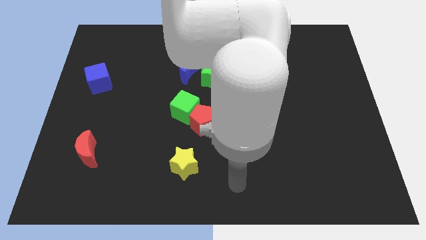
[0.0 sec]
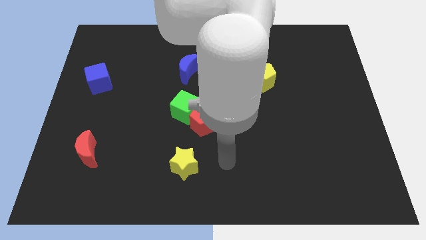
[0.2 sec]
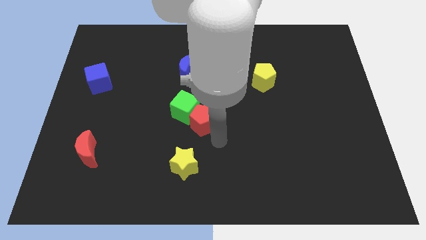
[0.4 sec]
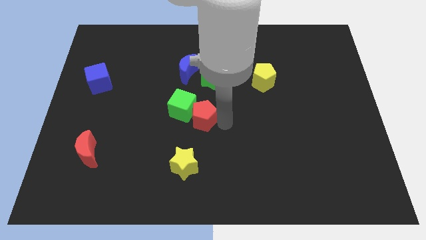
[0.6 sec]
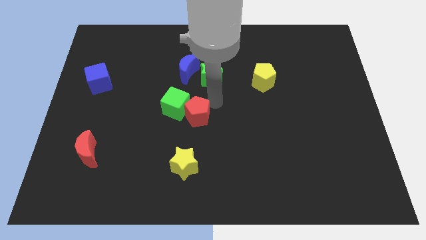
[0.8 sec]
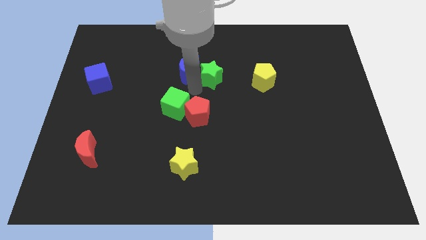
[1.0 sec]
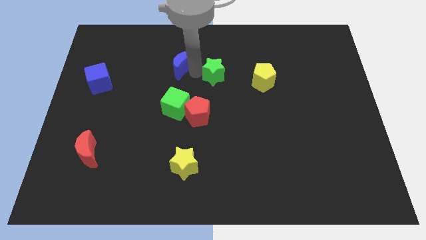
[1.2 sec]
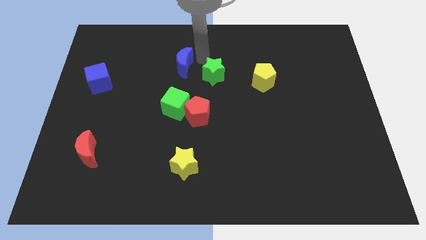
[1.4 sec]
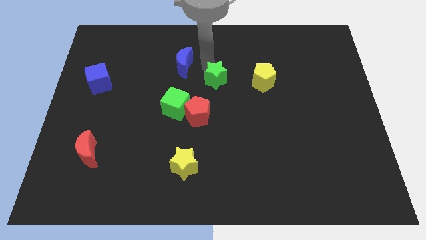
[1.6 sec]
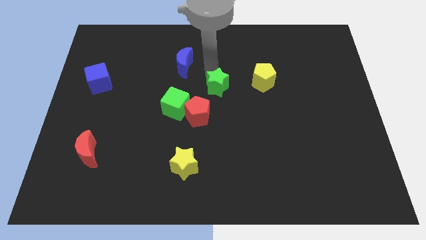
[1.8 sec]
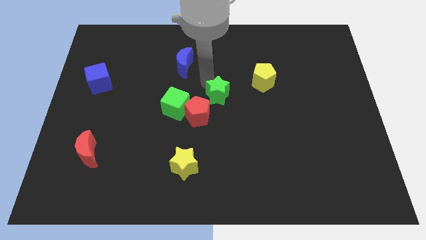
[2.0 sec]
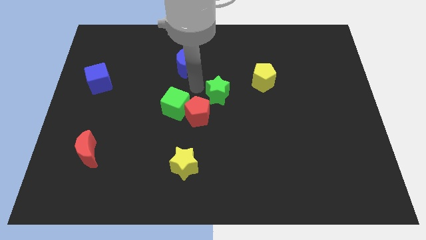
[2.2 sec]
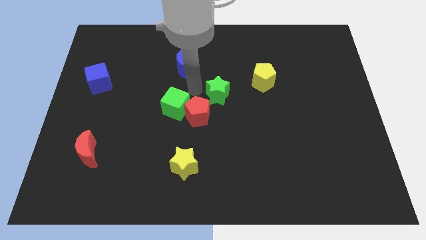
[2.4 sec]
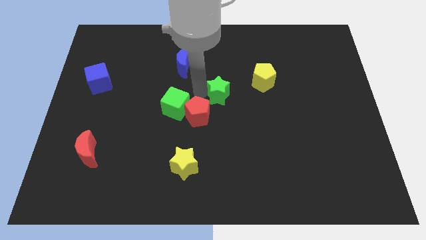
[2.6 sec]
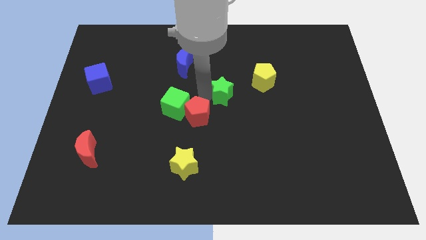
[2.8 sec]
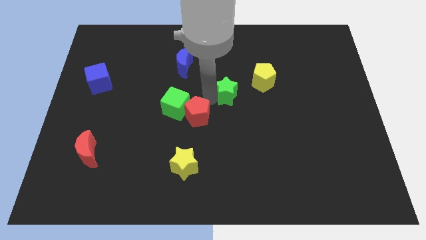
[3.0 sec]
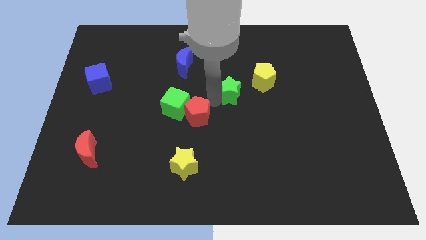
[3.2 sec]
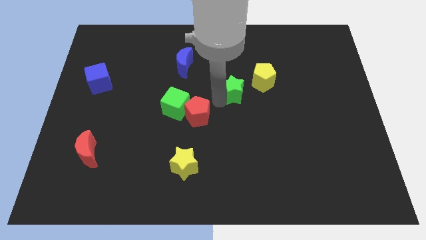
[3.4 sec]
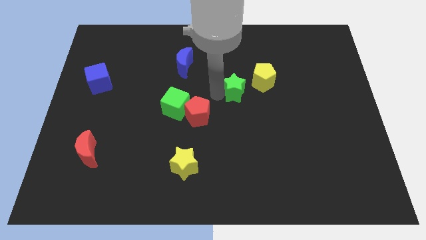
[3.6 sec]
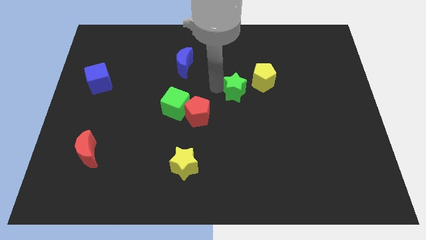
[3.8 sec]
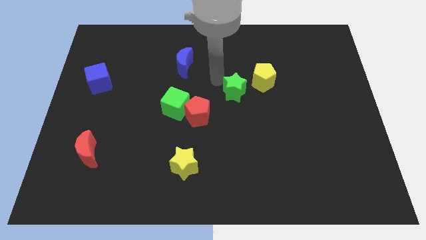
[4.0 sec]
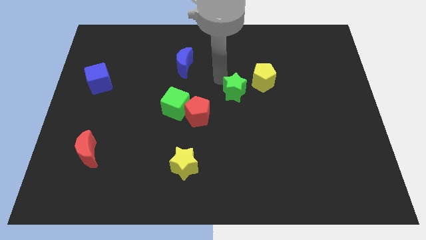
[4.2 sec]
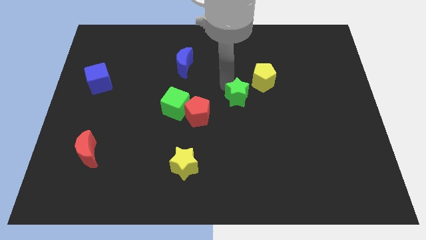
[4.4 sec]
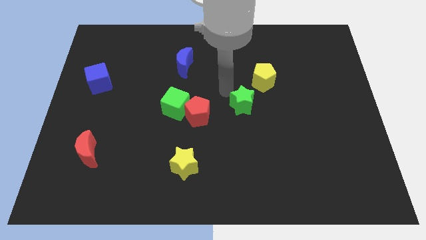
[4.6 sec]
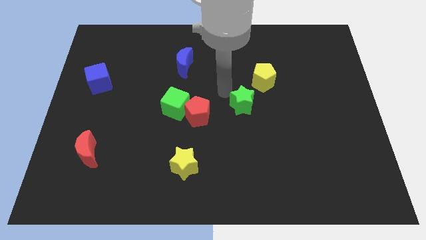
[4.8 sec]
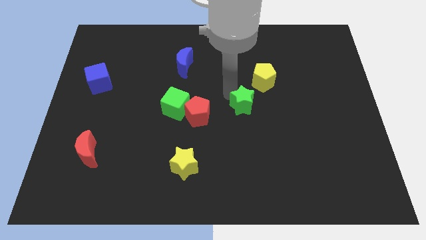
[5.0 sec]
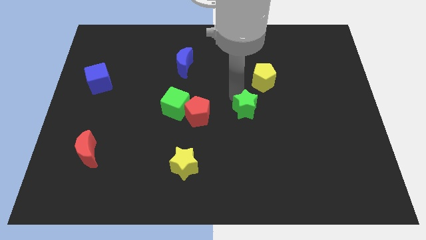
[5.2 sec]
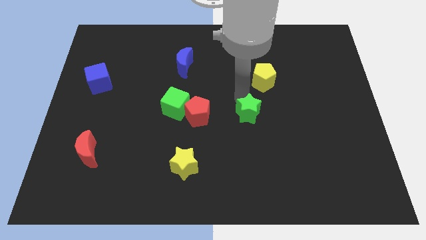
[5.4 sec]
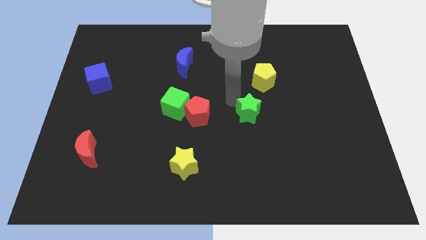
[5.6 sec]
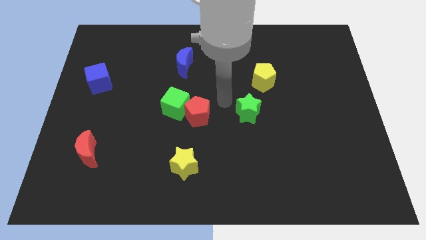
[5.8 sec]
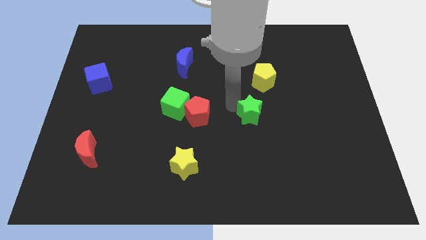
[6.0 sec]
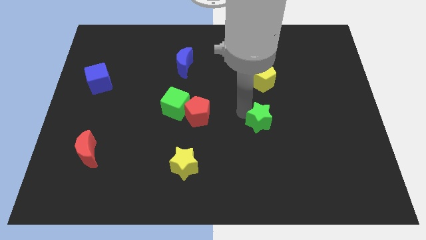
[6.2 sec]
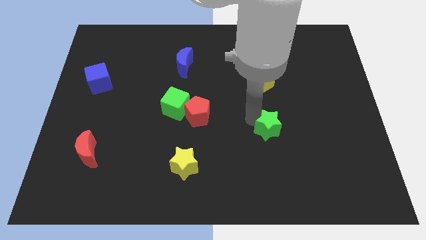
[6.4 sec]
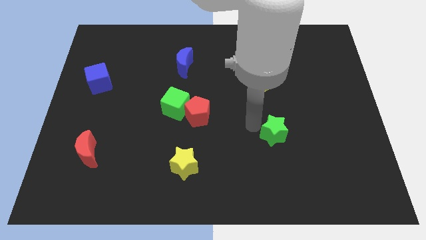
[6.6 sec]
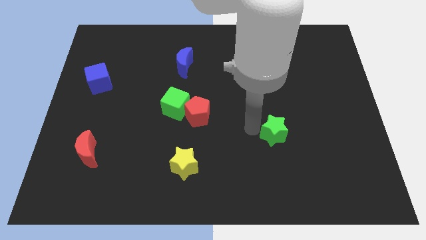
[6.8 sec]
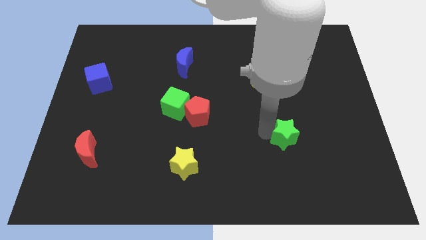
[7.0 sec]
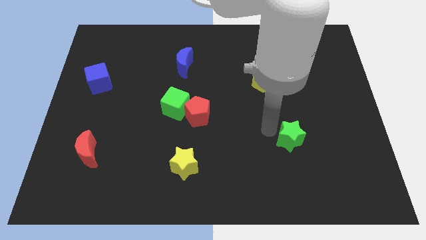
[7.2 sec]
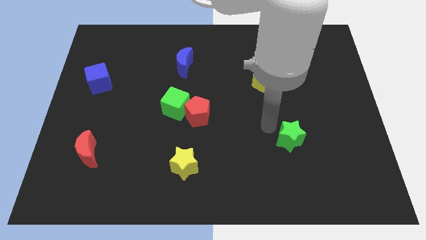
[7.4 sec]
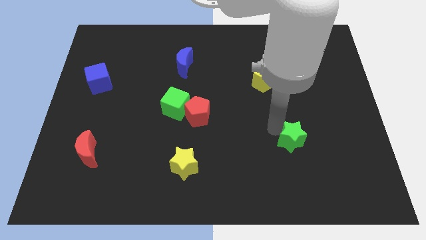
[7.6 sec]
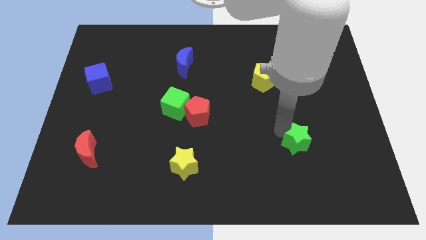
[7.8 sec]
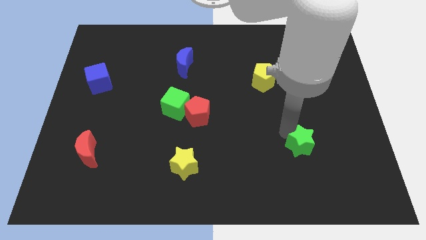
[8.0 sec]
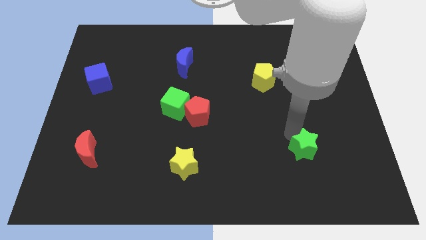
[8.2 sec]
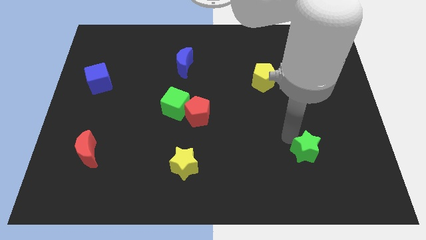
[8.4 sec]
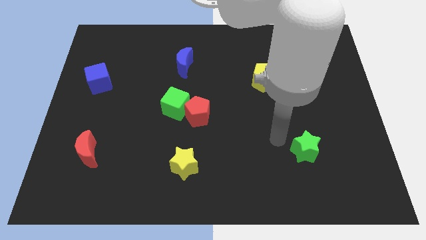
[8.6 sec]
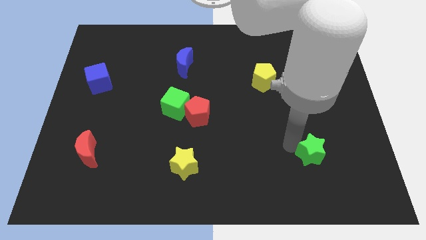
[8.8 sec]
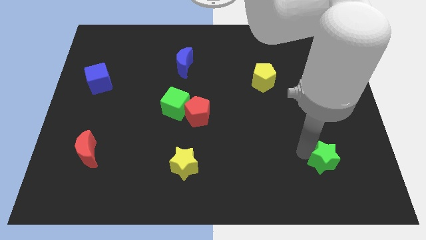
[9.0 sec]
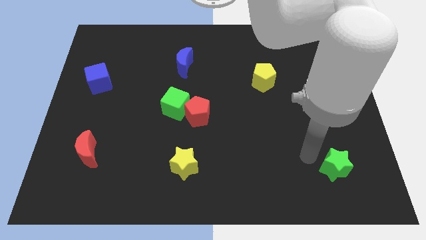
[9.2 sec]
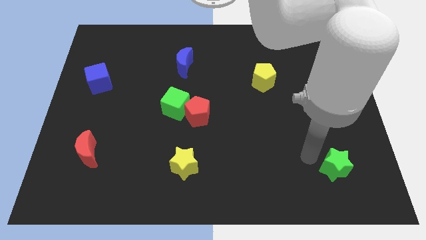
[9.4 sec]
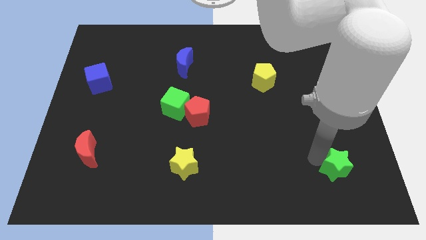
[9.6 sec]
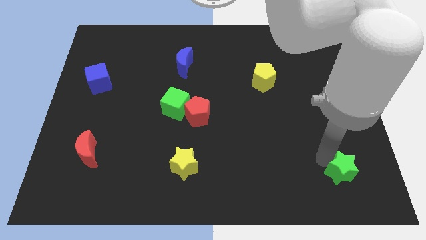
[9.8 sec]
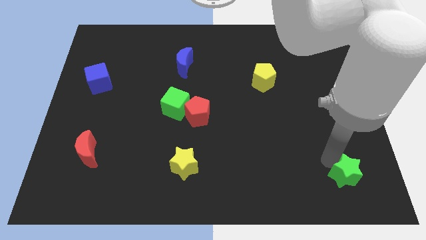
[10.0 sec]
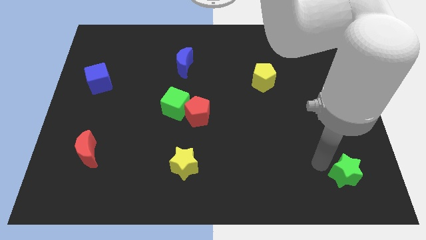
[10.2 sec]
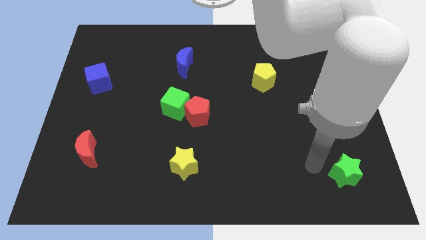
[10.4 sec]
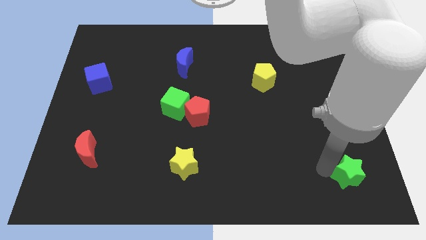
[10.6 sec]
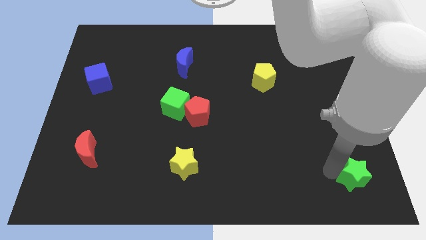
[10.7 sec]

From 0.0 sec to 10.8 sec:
push the green star to the lower right corner

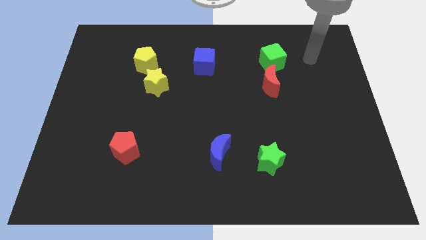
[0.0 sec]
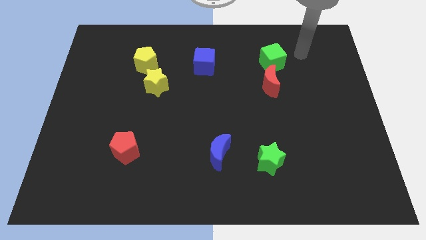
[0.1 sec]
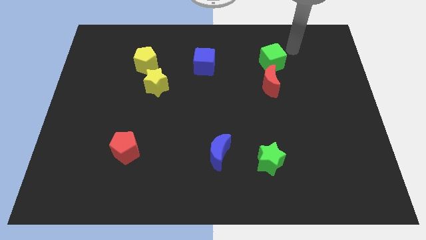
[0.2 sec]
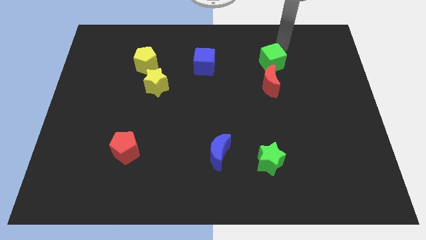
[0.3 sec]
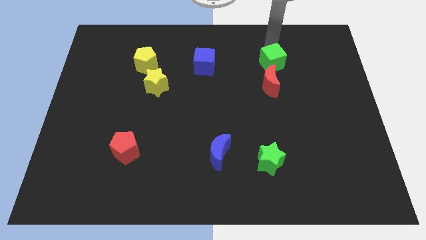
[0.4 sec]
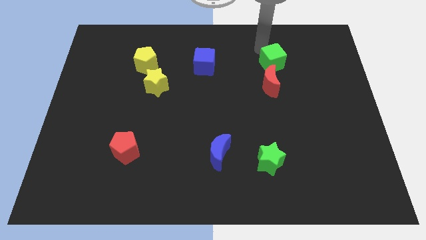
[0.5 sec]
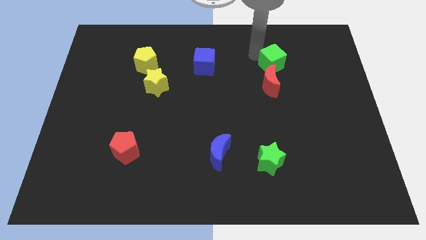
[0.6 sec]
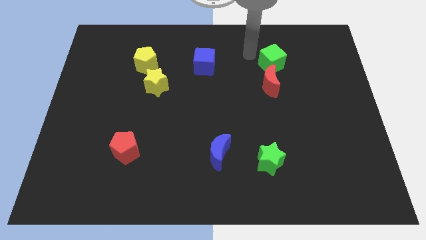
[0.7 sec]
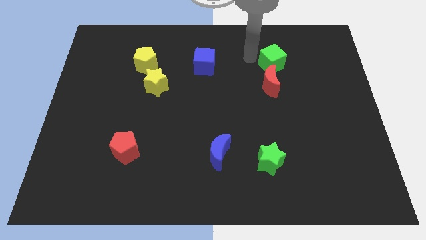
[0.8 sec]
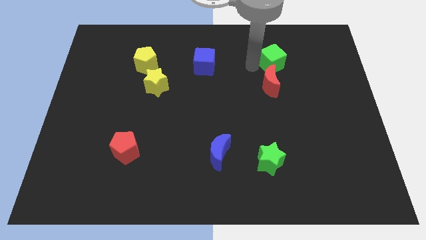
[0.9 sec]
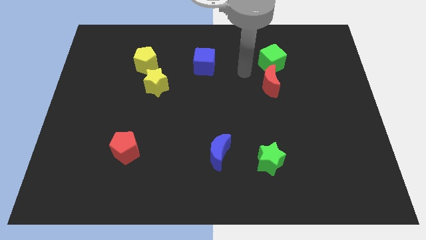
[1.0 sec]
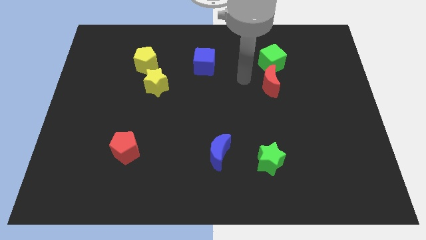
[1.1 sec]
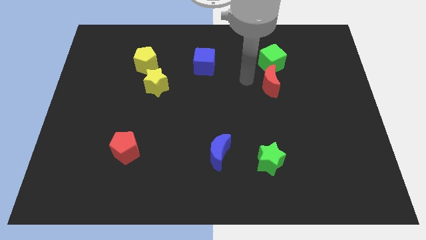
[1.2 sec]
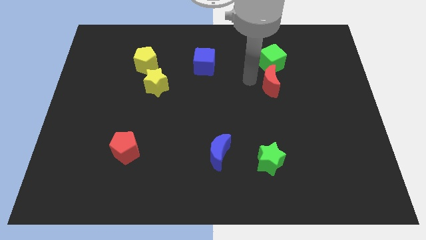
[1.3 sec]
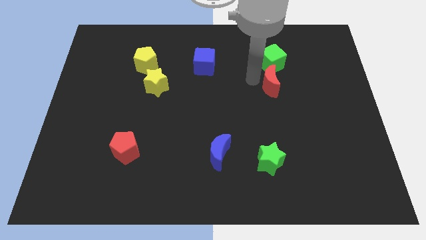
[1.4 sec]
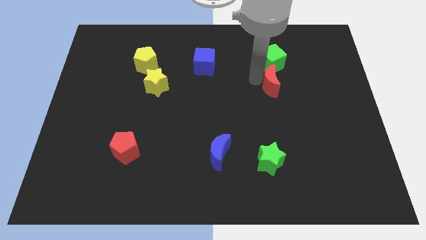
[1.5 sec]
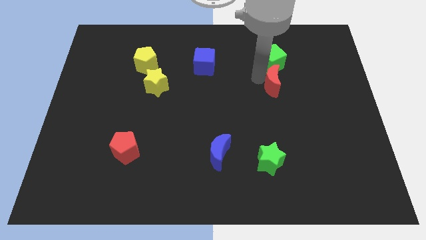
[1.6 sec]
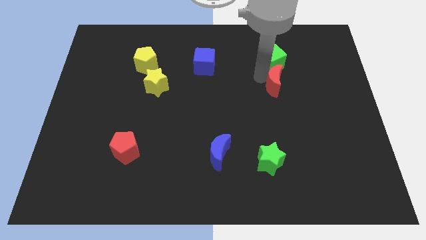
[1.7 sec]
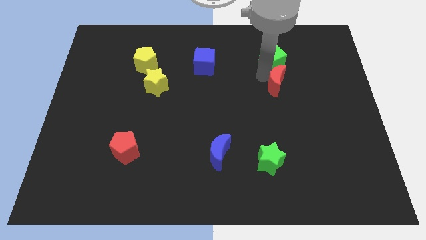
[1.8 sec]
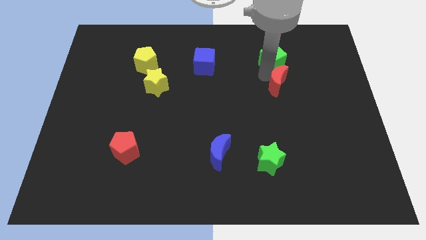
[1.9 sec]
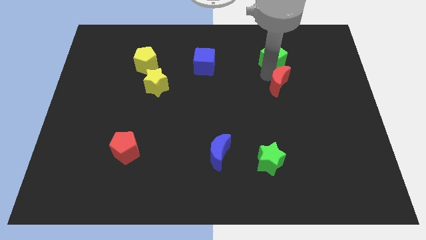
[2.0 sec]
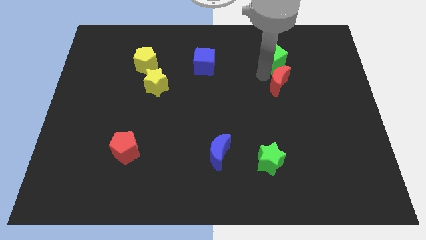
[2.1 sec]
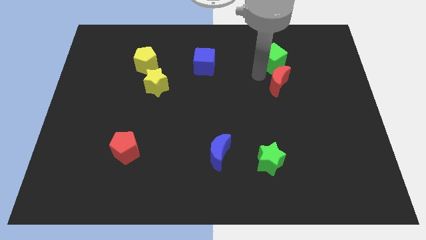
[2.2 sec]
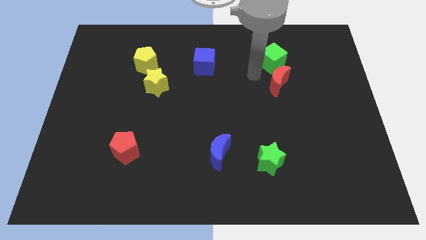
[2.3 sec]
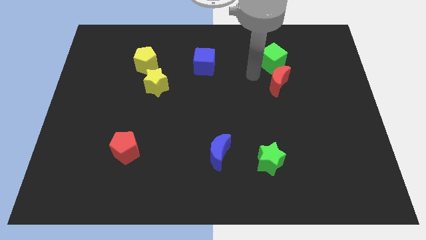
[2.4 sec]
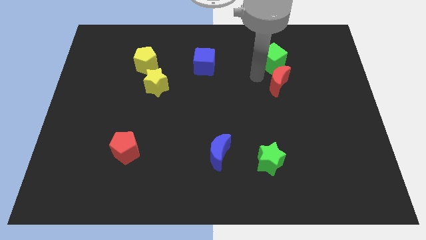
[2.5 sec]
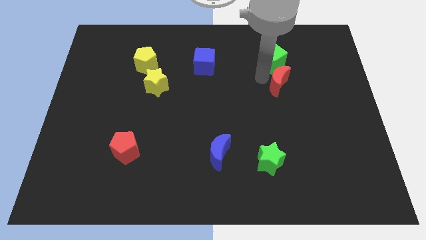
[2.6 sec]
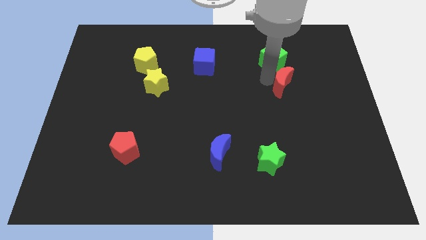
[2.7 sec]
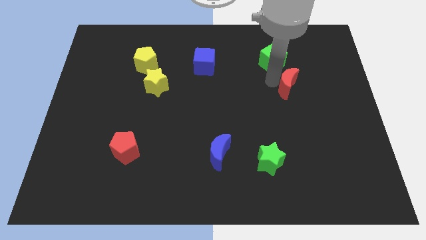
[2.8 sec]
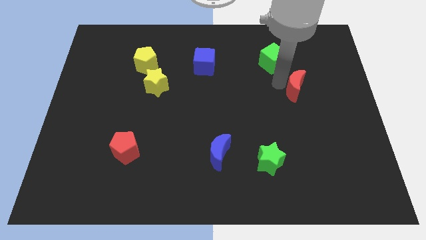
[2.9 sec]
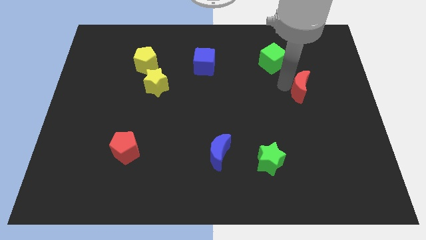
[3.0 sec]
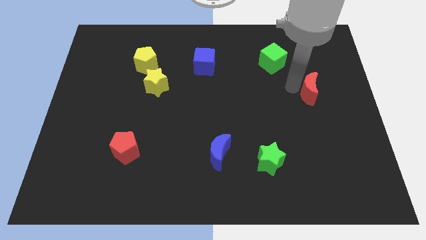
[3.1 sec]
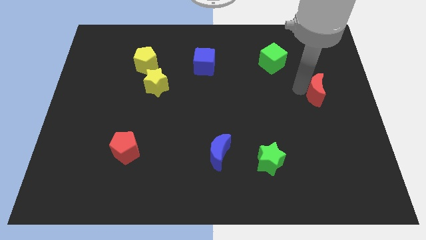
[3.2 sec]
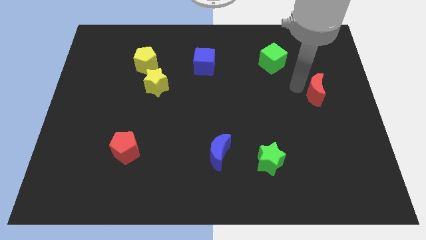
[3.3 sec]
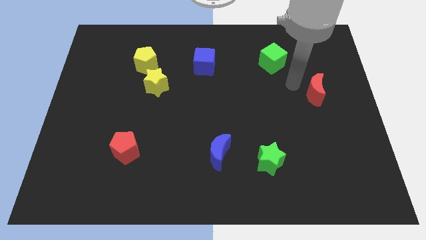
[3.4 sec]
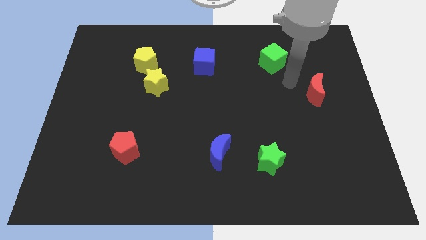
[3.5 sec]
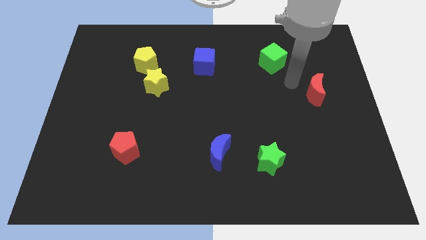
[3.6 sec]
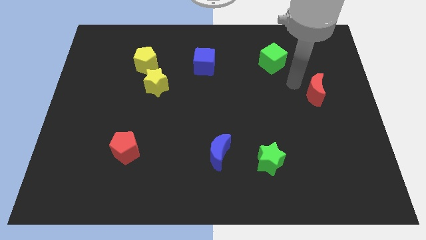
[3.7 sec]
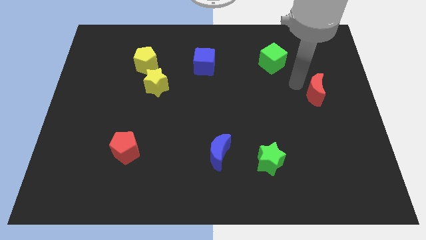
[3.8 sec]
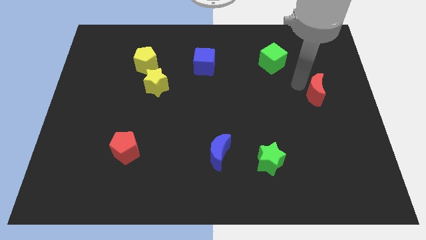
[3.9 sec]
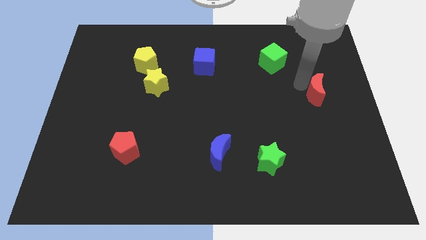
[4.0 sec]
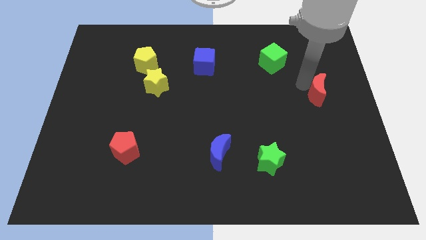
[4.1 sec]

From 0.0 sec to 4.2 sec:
slide the red moon to the right side of the board
